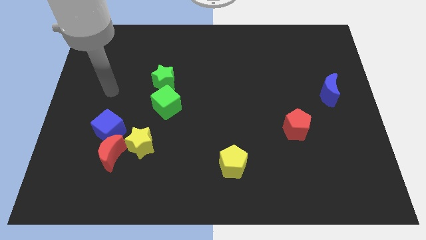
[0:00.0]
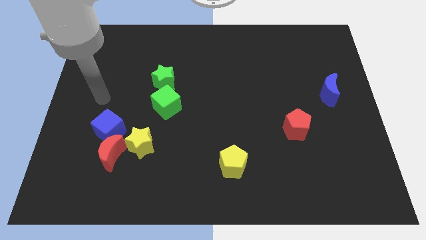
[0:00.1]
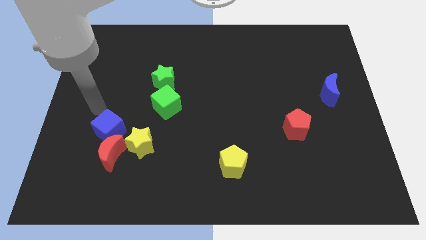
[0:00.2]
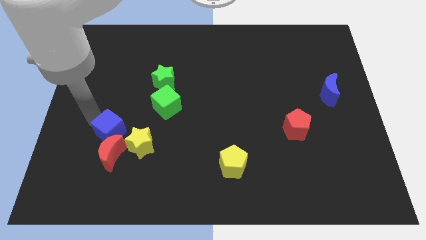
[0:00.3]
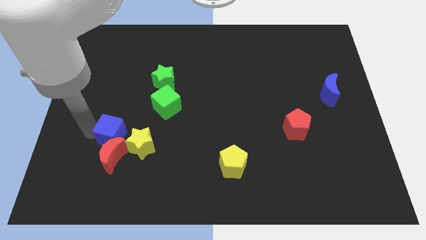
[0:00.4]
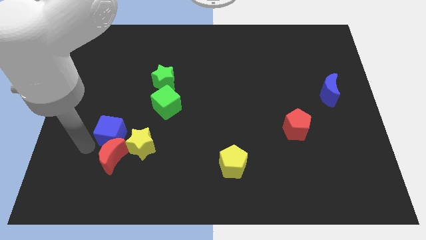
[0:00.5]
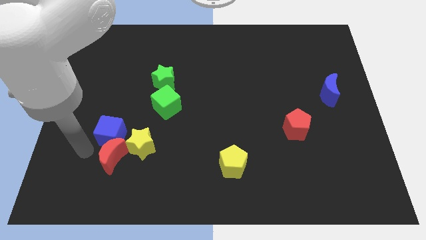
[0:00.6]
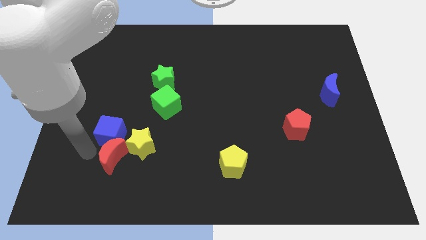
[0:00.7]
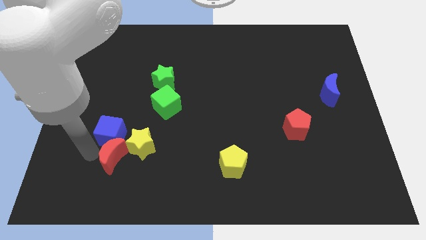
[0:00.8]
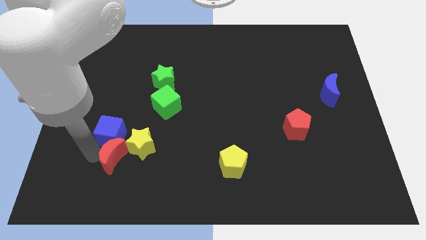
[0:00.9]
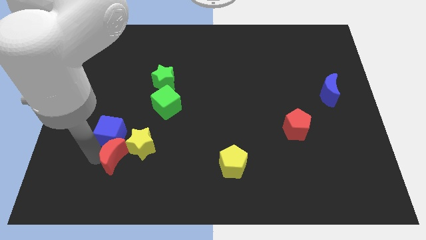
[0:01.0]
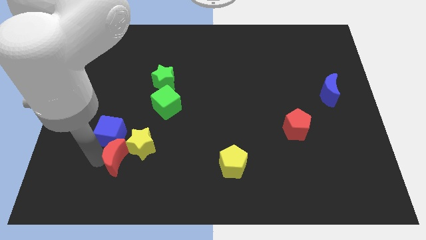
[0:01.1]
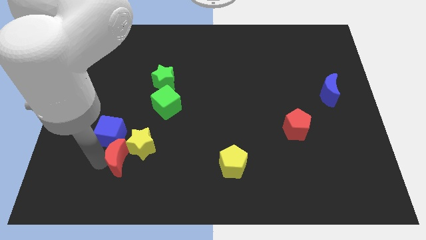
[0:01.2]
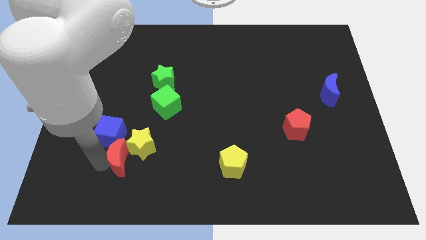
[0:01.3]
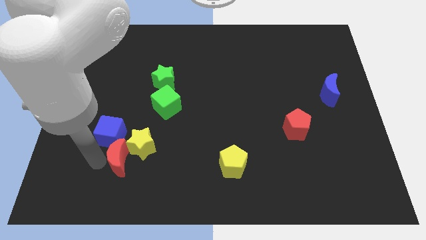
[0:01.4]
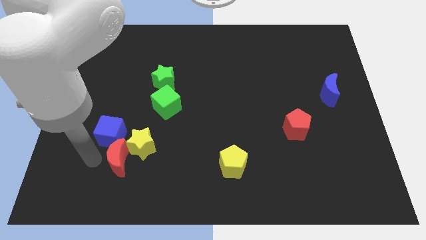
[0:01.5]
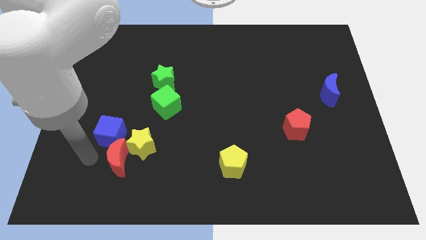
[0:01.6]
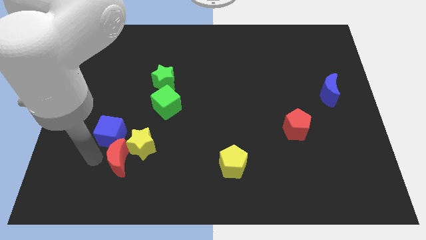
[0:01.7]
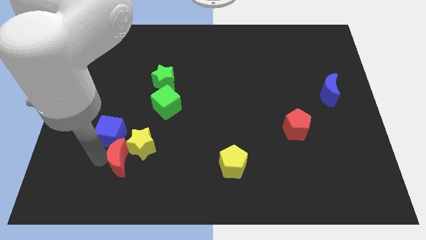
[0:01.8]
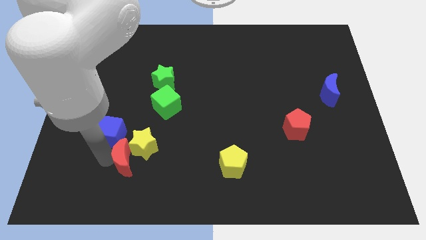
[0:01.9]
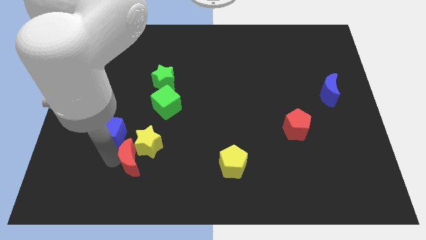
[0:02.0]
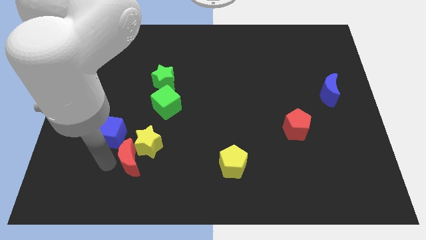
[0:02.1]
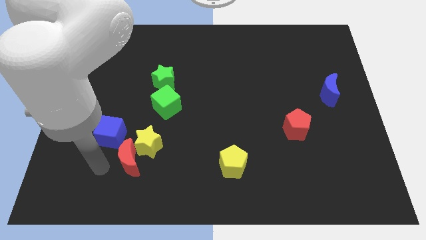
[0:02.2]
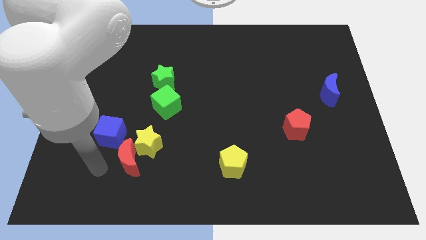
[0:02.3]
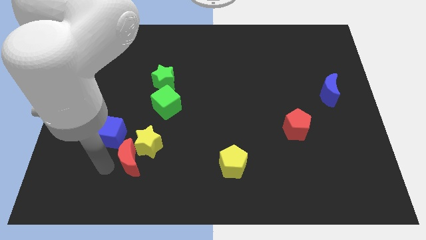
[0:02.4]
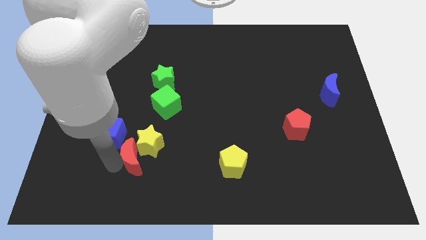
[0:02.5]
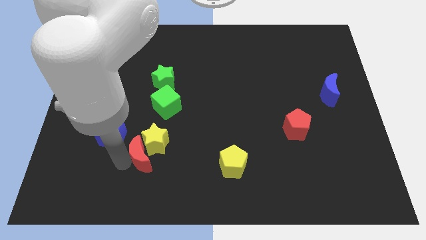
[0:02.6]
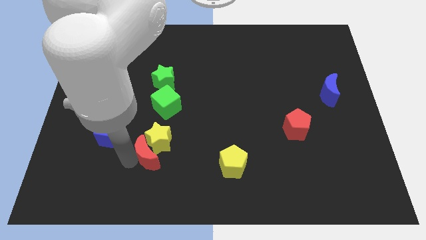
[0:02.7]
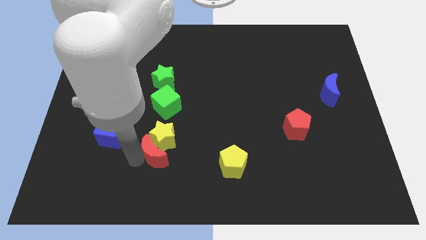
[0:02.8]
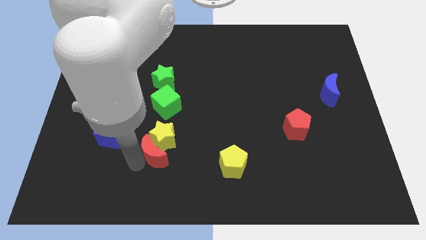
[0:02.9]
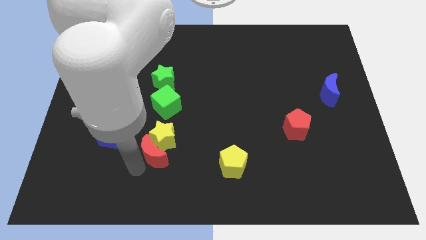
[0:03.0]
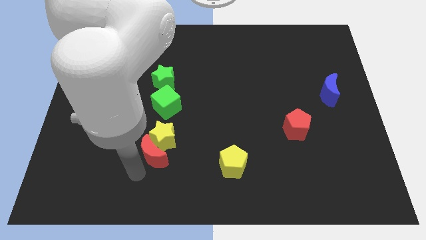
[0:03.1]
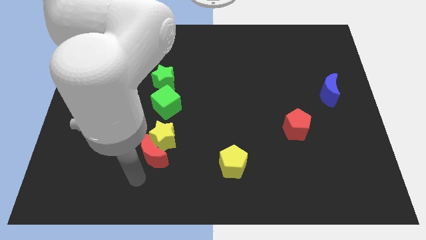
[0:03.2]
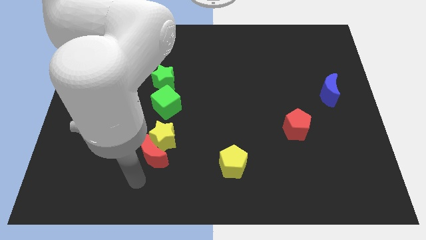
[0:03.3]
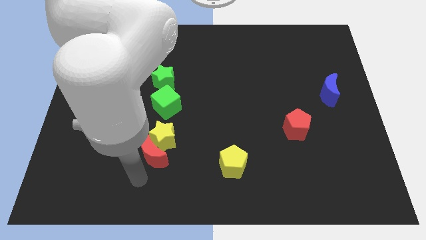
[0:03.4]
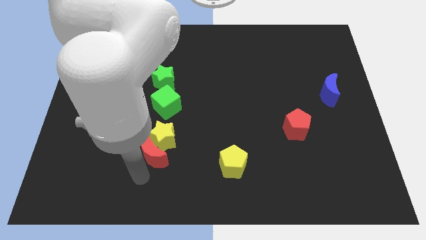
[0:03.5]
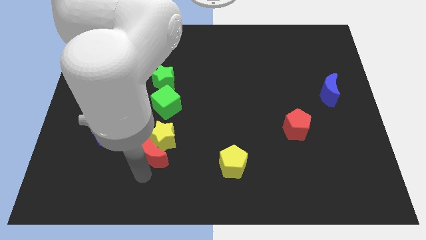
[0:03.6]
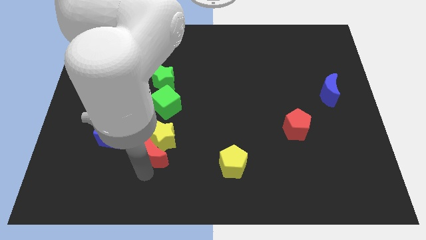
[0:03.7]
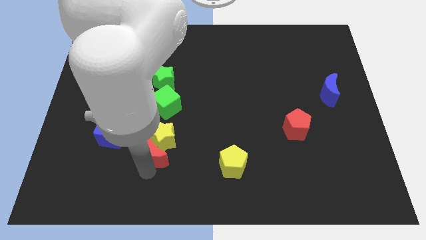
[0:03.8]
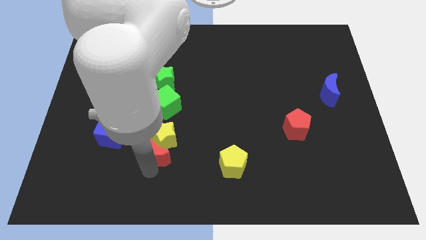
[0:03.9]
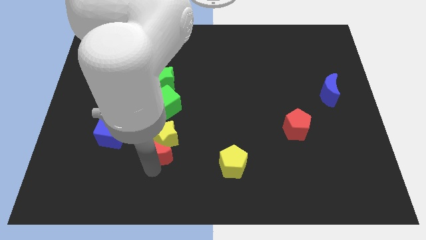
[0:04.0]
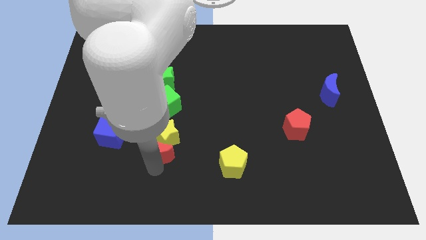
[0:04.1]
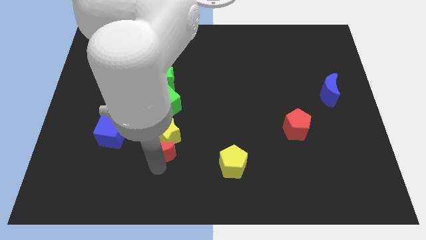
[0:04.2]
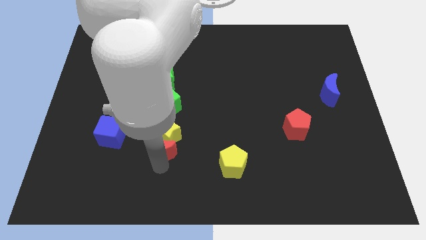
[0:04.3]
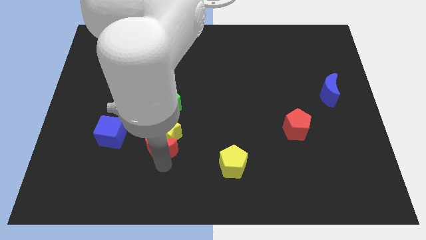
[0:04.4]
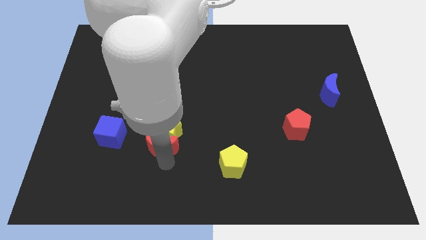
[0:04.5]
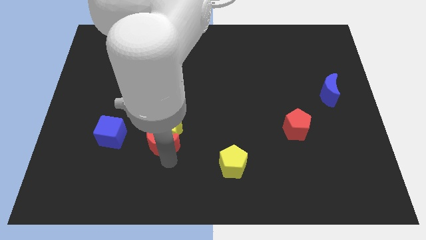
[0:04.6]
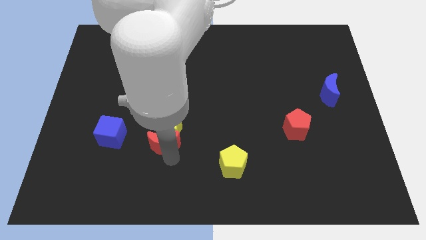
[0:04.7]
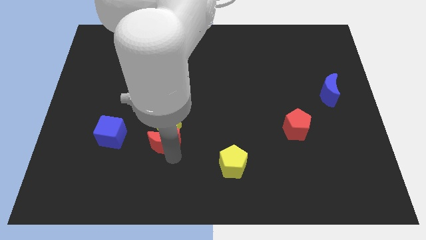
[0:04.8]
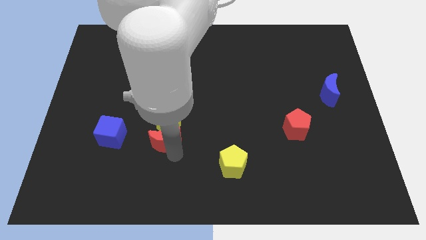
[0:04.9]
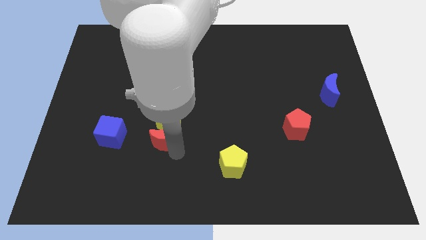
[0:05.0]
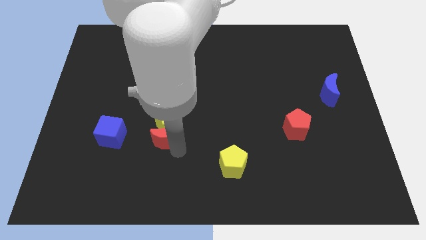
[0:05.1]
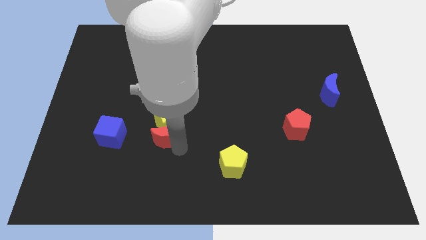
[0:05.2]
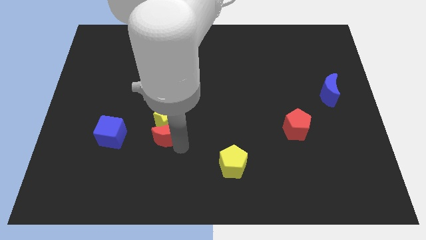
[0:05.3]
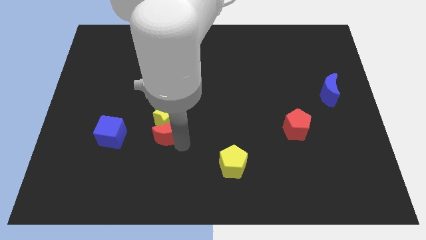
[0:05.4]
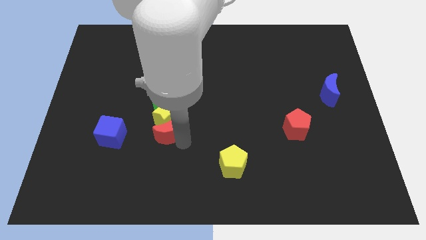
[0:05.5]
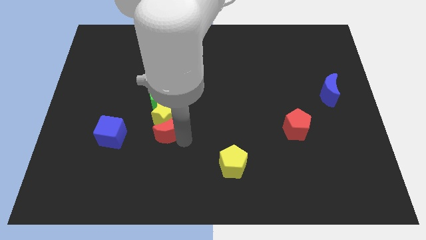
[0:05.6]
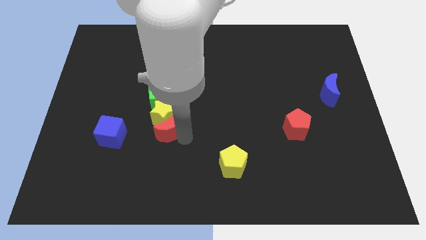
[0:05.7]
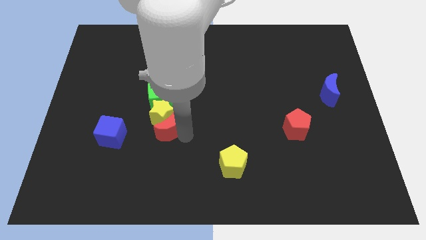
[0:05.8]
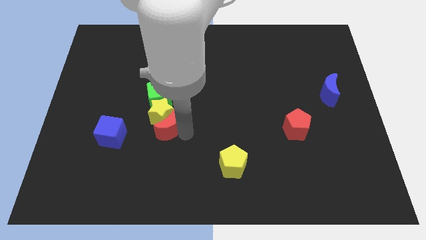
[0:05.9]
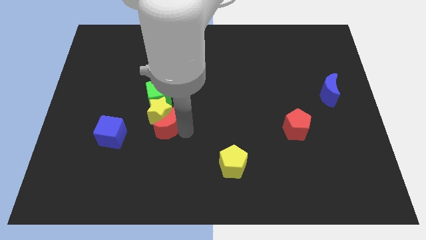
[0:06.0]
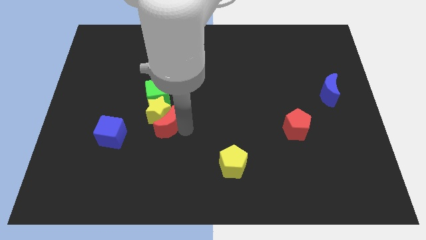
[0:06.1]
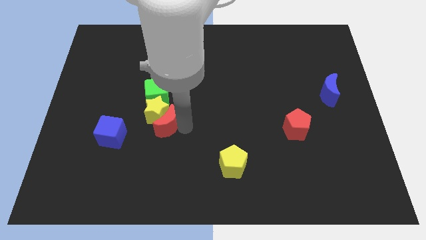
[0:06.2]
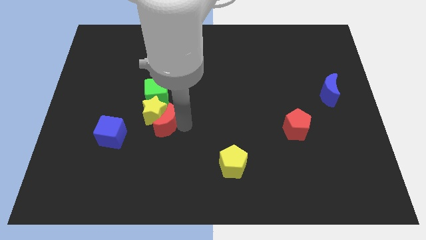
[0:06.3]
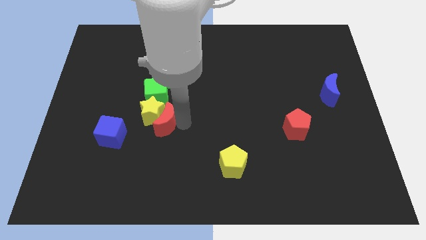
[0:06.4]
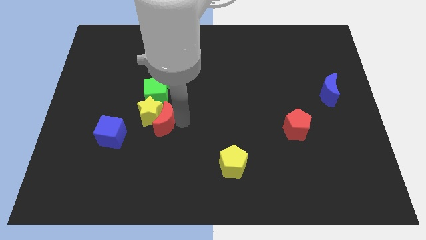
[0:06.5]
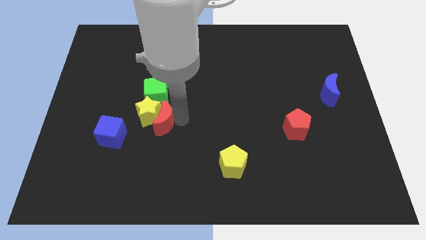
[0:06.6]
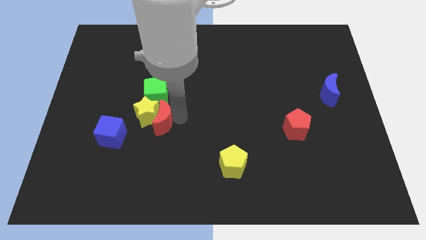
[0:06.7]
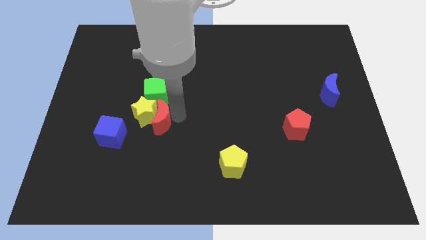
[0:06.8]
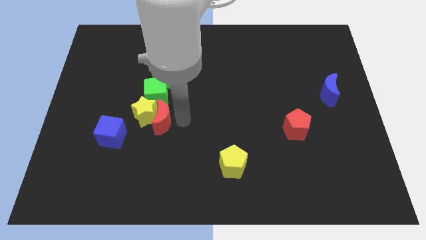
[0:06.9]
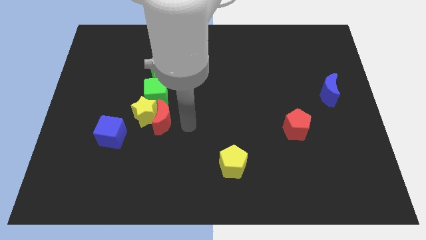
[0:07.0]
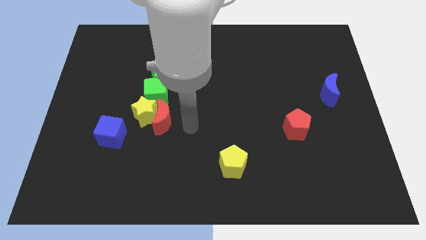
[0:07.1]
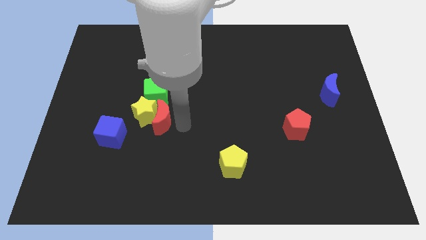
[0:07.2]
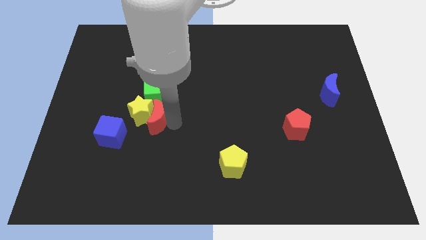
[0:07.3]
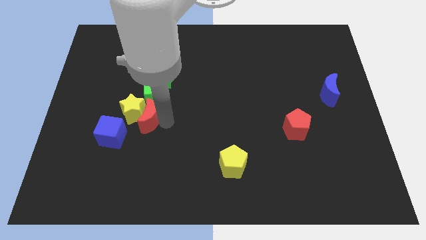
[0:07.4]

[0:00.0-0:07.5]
move the red moon diagonally down and to the left of the green cube
